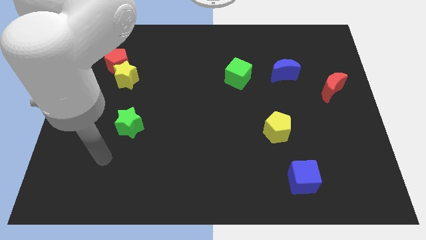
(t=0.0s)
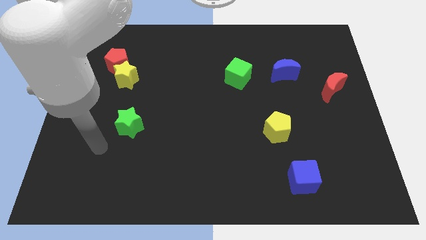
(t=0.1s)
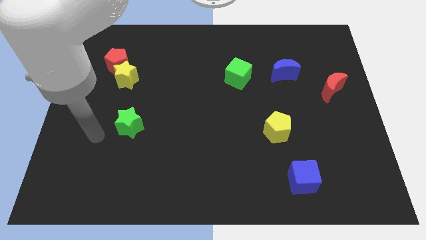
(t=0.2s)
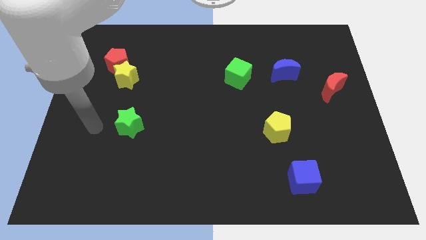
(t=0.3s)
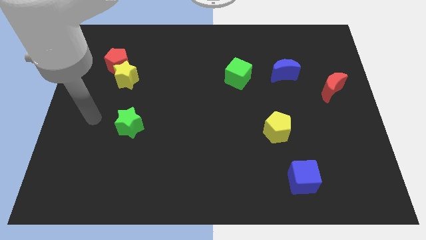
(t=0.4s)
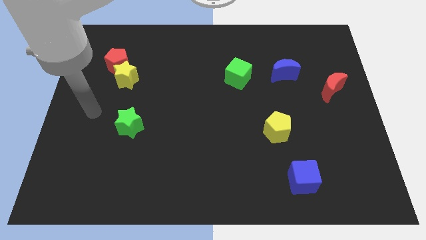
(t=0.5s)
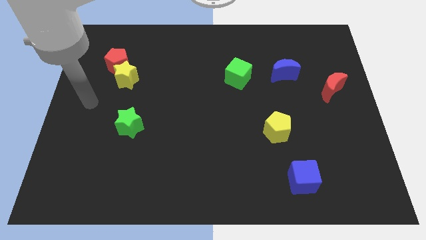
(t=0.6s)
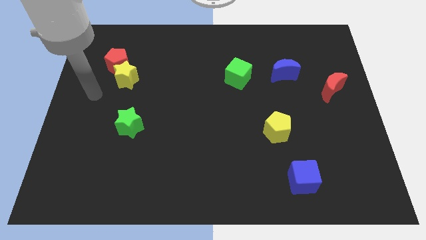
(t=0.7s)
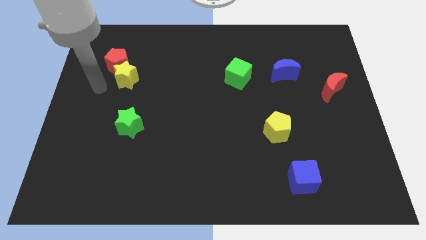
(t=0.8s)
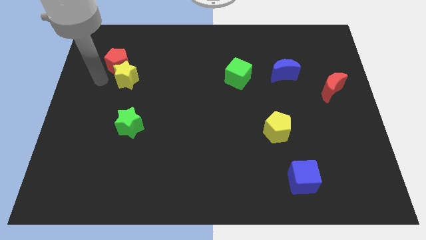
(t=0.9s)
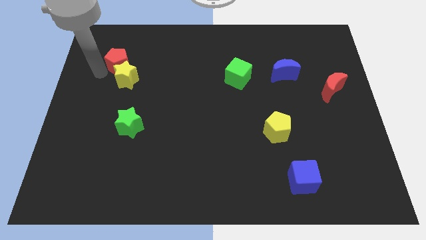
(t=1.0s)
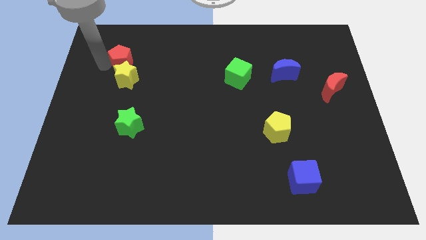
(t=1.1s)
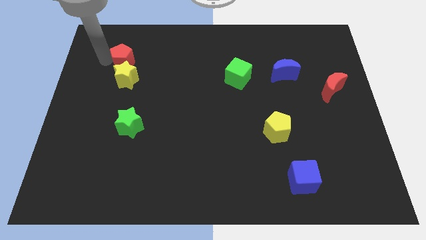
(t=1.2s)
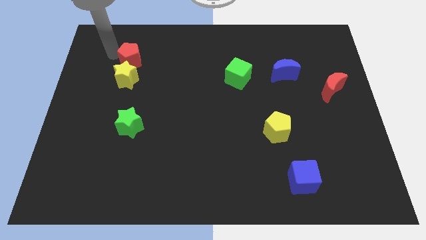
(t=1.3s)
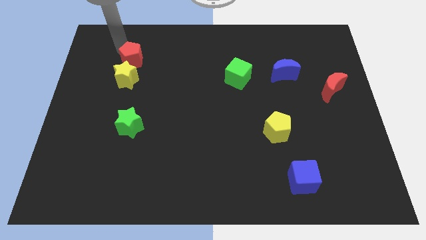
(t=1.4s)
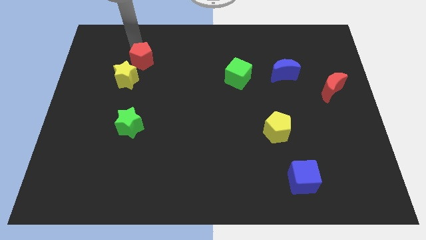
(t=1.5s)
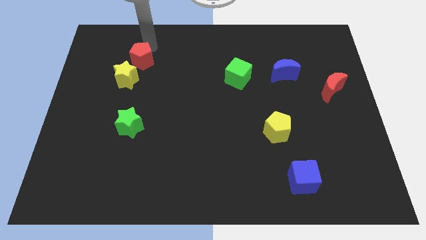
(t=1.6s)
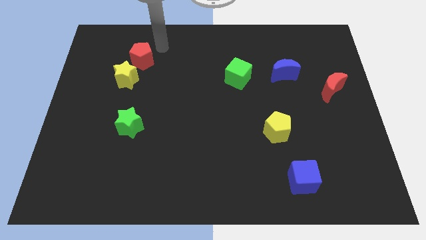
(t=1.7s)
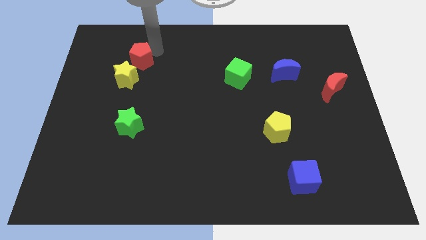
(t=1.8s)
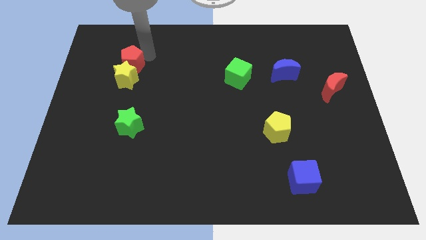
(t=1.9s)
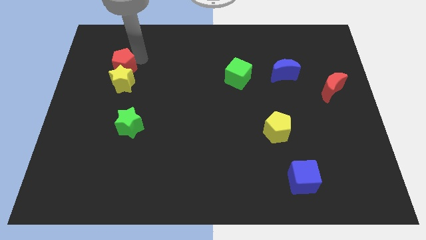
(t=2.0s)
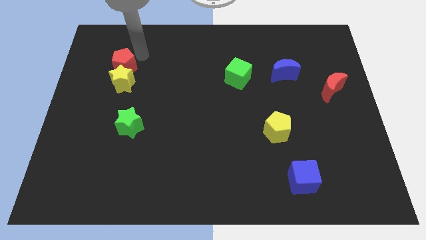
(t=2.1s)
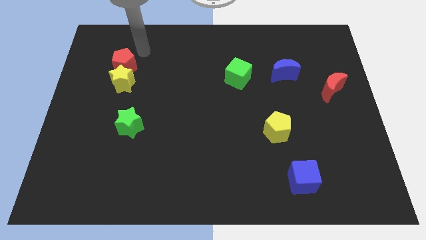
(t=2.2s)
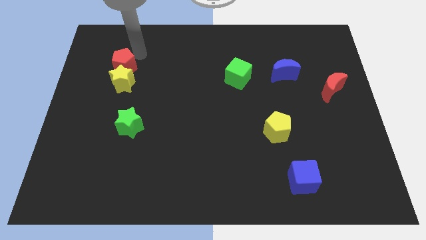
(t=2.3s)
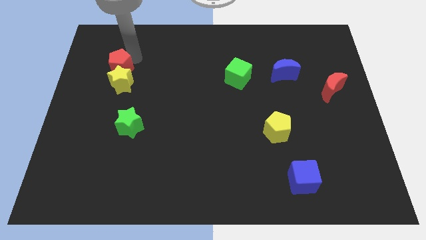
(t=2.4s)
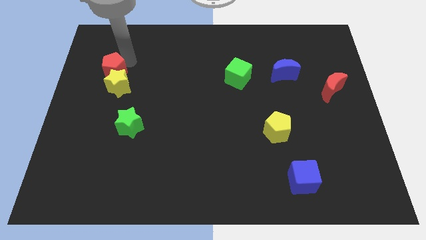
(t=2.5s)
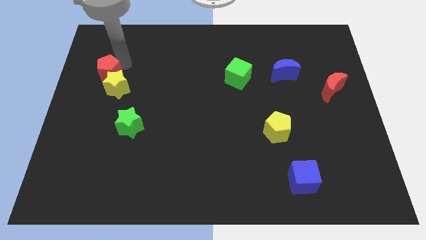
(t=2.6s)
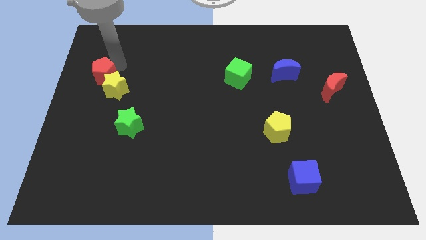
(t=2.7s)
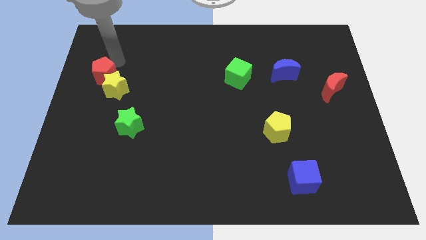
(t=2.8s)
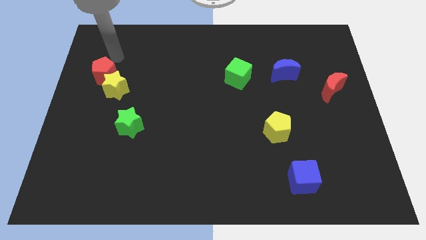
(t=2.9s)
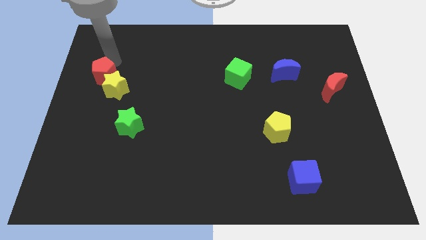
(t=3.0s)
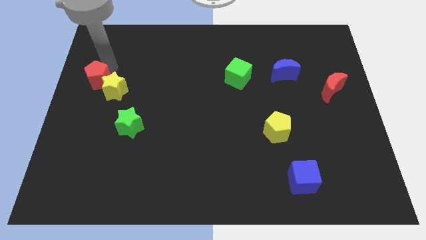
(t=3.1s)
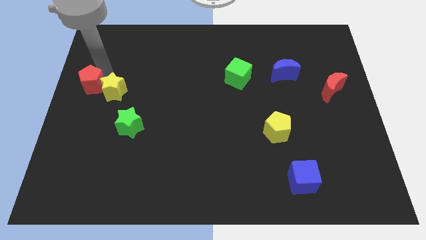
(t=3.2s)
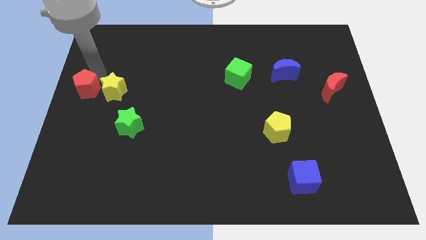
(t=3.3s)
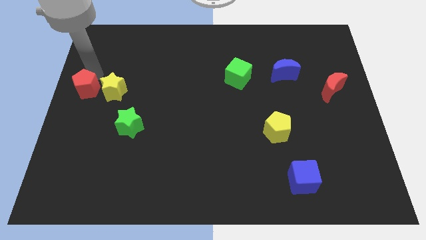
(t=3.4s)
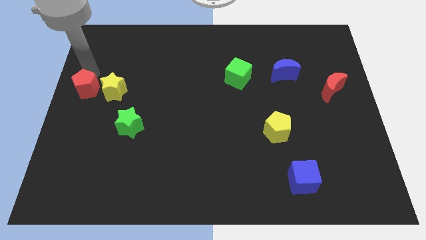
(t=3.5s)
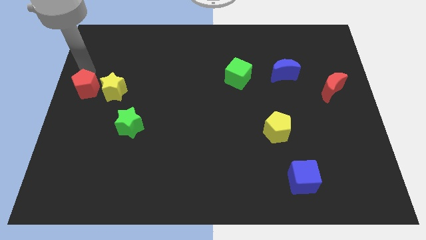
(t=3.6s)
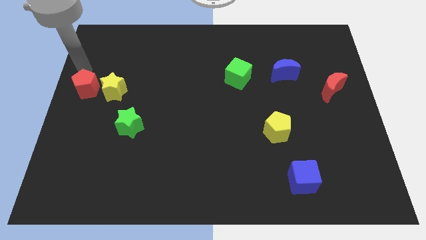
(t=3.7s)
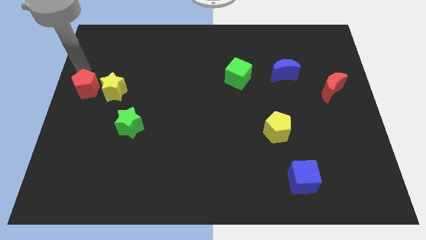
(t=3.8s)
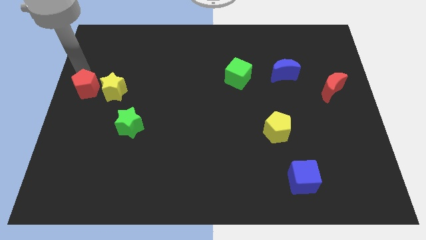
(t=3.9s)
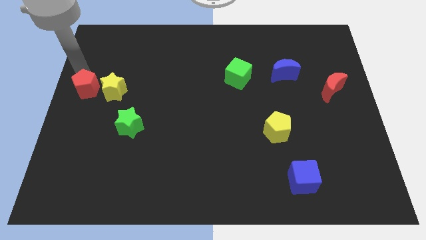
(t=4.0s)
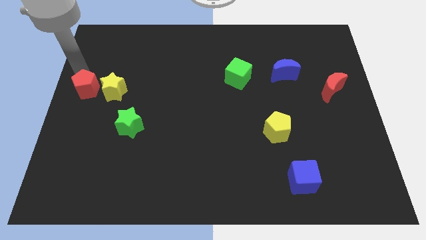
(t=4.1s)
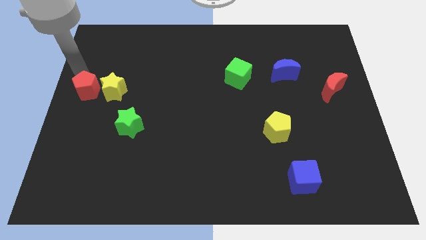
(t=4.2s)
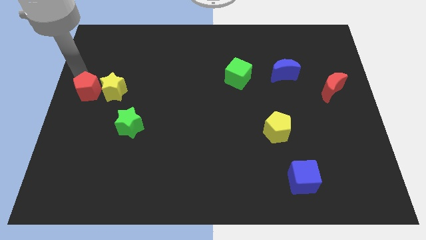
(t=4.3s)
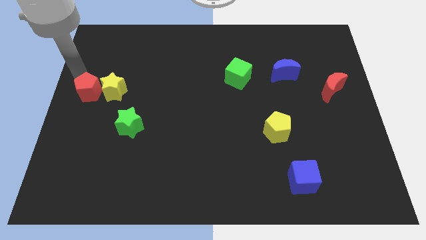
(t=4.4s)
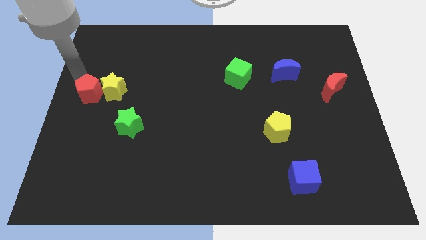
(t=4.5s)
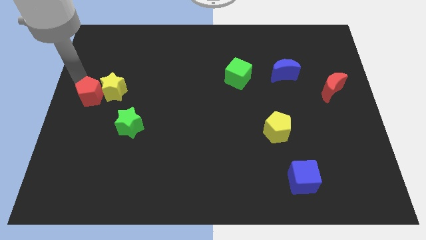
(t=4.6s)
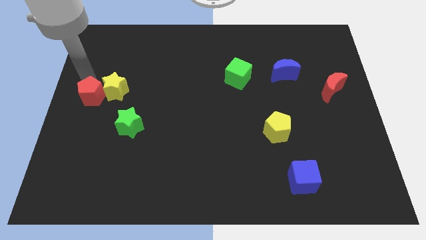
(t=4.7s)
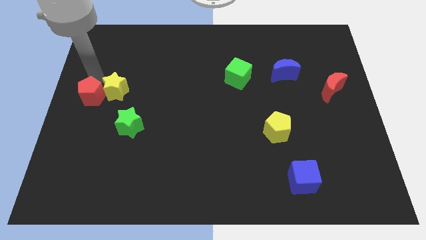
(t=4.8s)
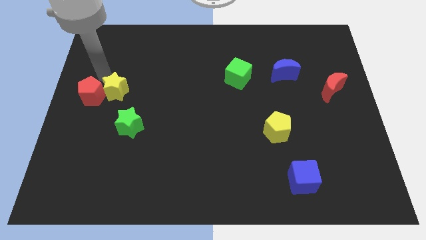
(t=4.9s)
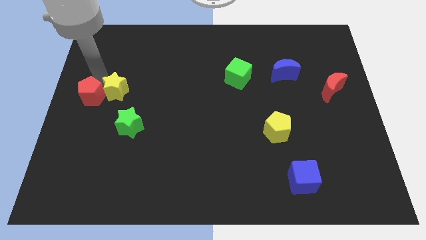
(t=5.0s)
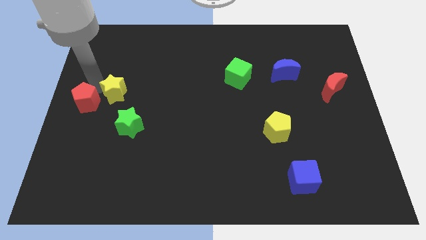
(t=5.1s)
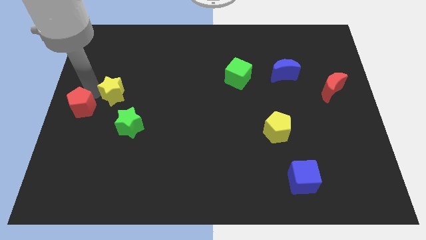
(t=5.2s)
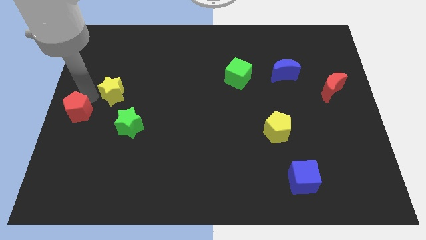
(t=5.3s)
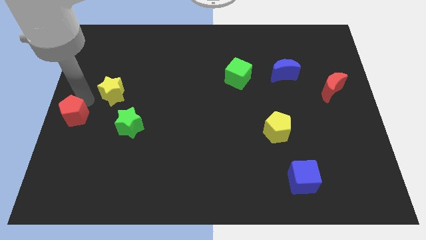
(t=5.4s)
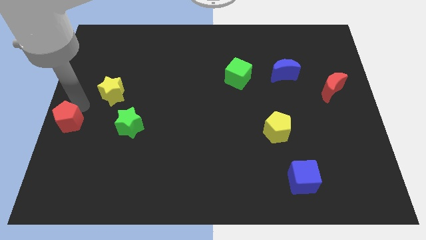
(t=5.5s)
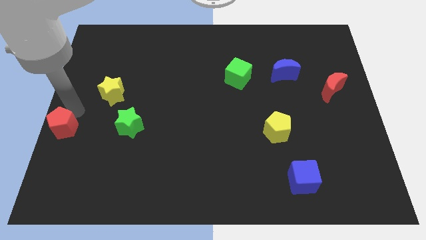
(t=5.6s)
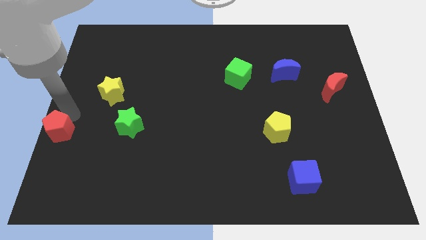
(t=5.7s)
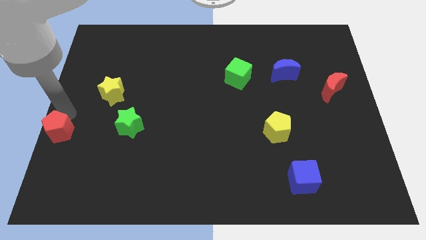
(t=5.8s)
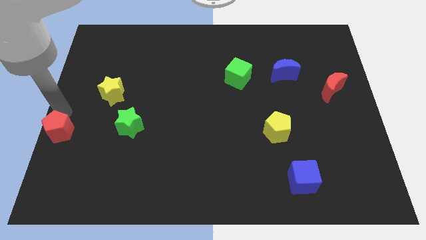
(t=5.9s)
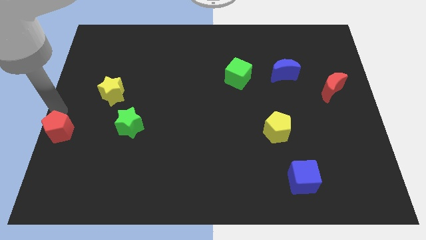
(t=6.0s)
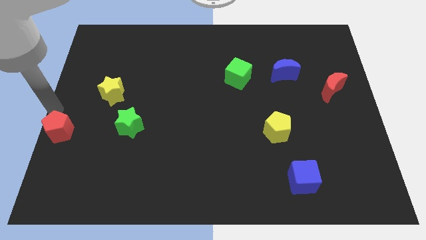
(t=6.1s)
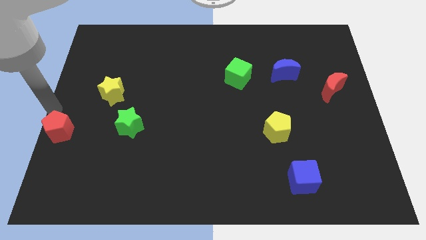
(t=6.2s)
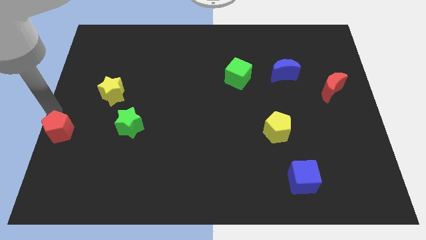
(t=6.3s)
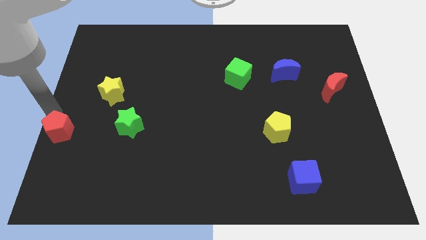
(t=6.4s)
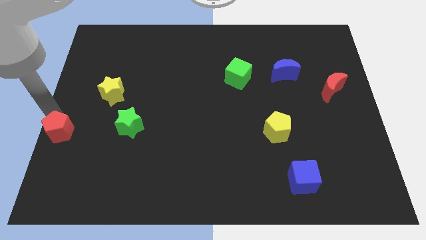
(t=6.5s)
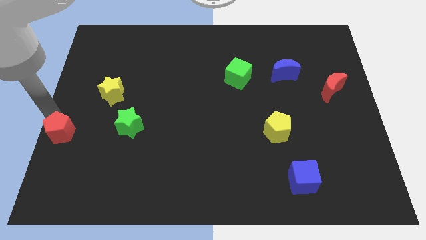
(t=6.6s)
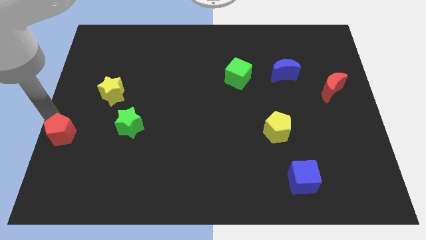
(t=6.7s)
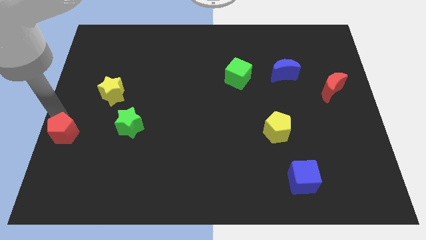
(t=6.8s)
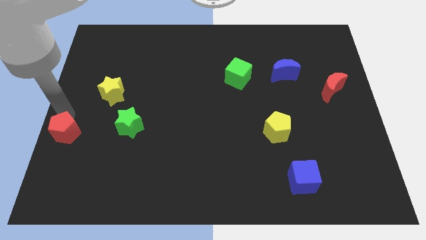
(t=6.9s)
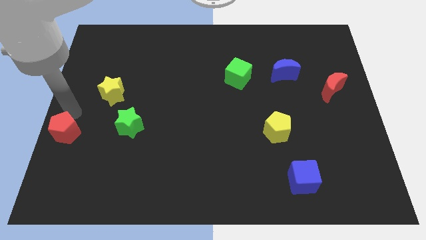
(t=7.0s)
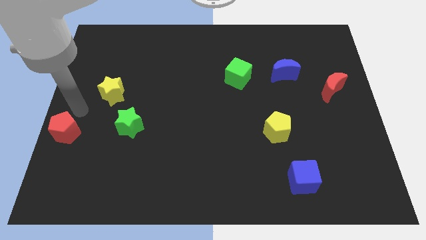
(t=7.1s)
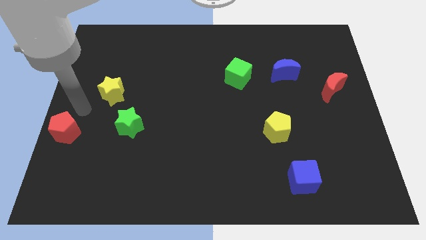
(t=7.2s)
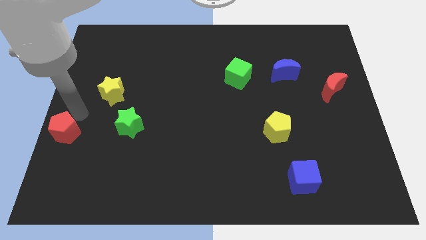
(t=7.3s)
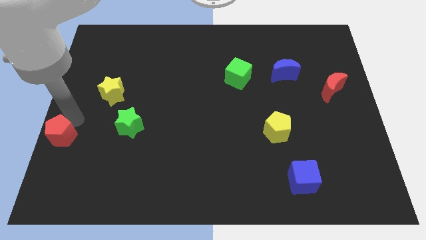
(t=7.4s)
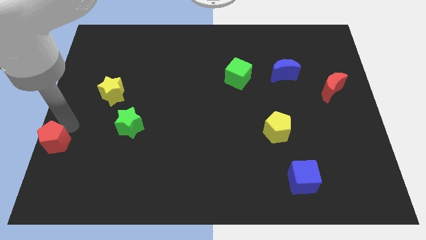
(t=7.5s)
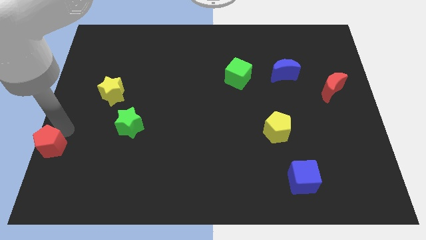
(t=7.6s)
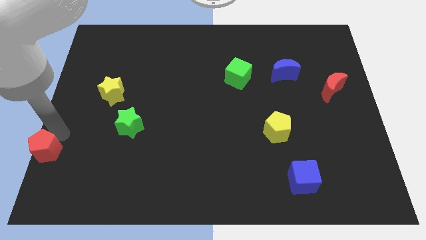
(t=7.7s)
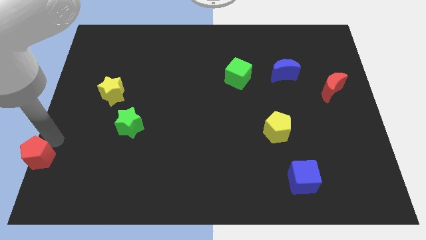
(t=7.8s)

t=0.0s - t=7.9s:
slide the red pentagon to the bottom left of the board
